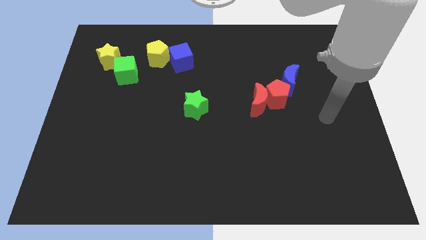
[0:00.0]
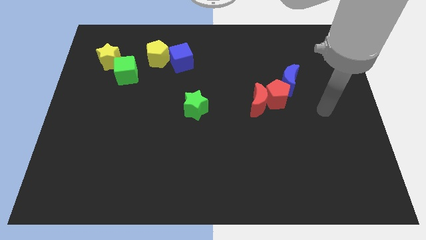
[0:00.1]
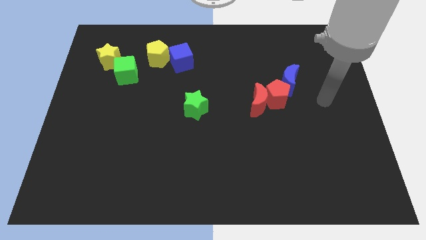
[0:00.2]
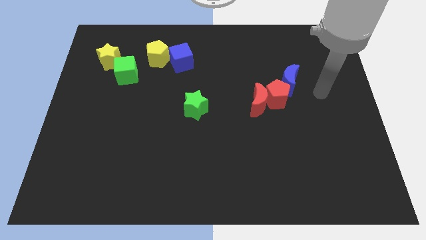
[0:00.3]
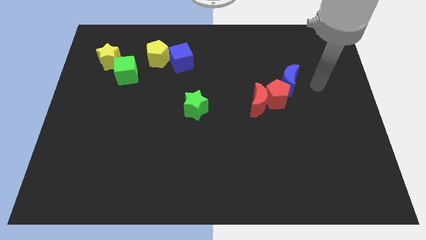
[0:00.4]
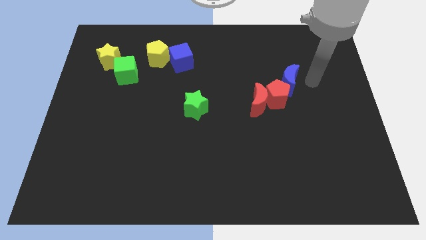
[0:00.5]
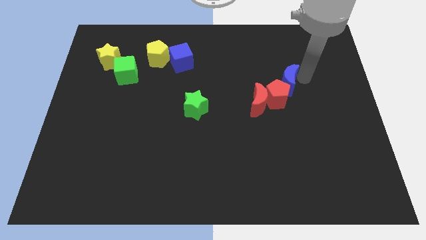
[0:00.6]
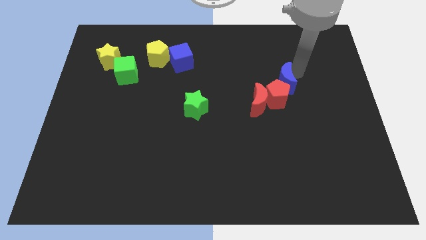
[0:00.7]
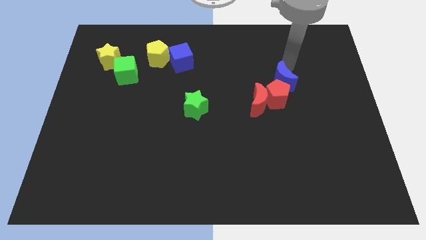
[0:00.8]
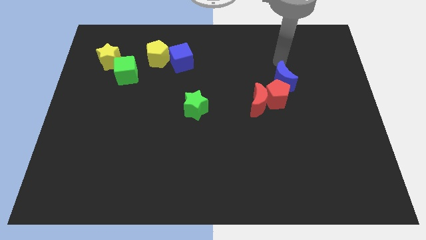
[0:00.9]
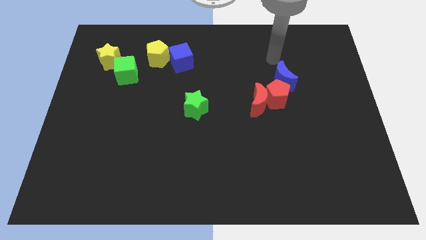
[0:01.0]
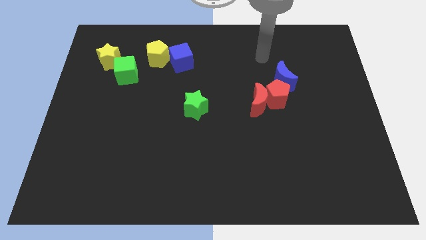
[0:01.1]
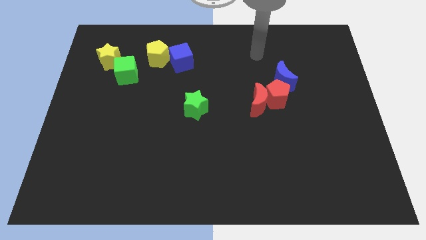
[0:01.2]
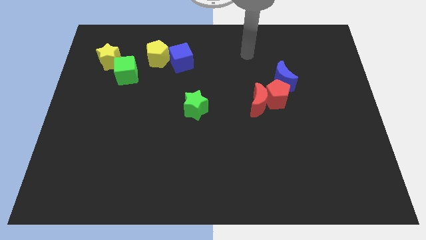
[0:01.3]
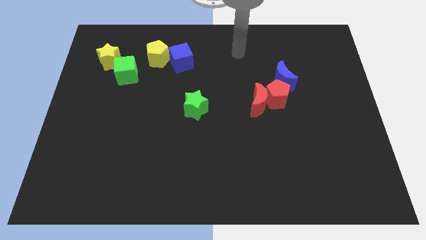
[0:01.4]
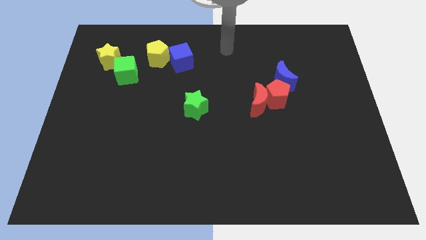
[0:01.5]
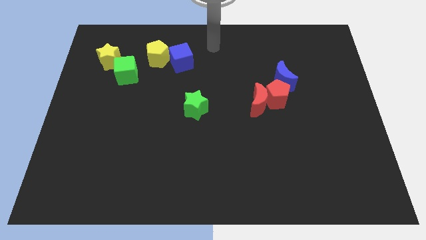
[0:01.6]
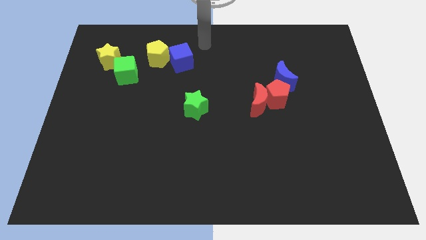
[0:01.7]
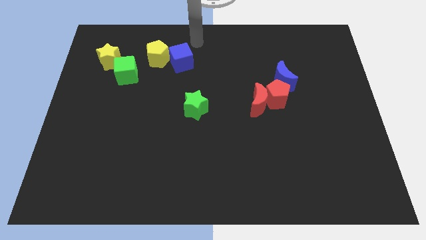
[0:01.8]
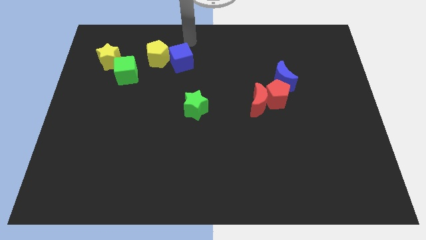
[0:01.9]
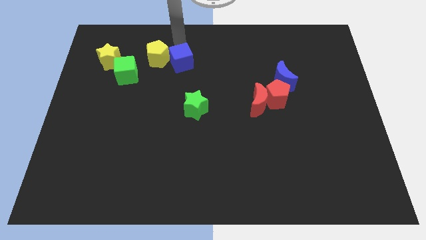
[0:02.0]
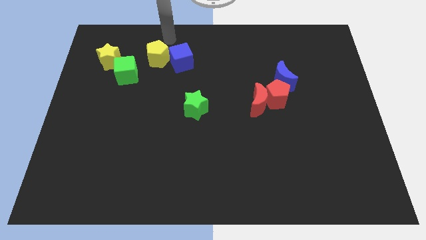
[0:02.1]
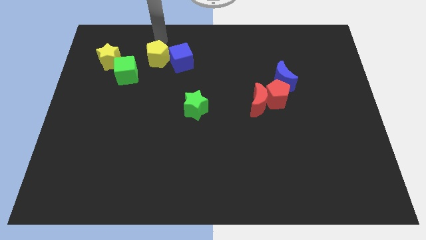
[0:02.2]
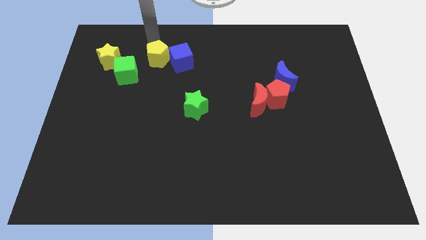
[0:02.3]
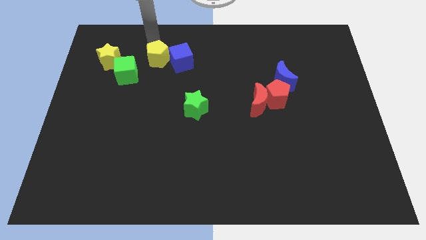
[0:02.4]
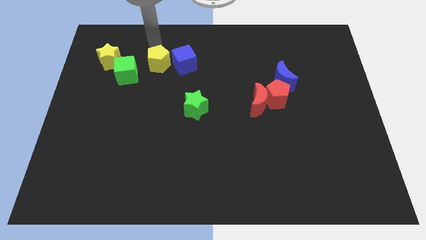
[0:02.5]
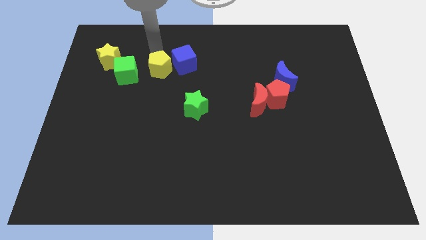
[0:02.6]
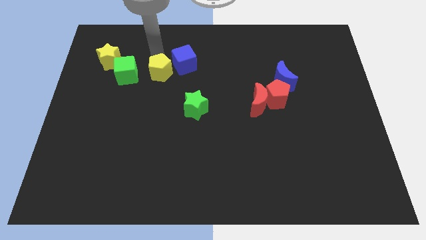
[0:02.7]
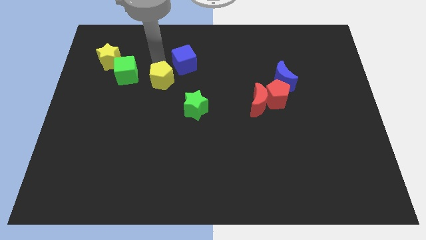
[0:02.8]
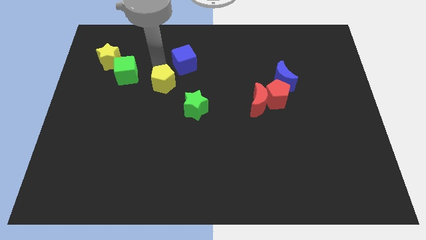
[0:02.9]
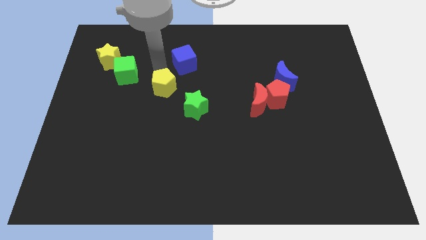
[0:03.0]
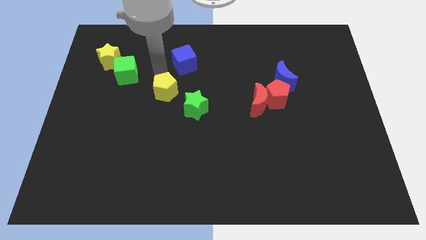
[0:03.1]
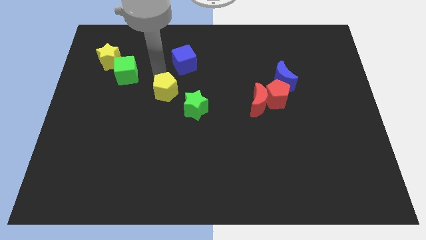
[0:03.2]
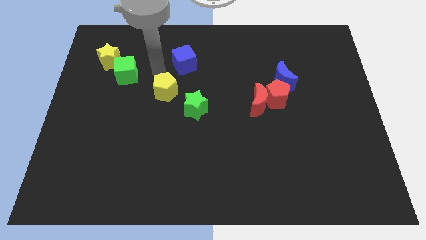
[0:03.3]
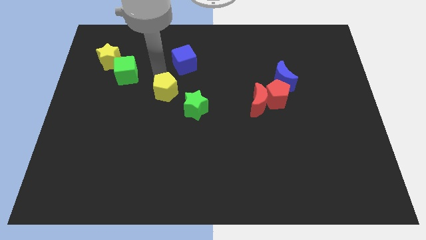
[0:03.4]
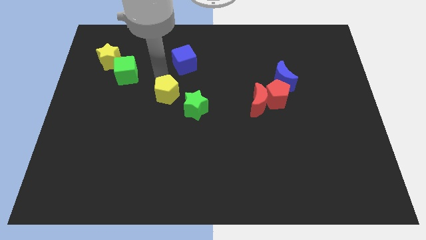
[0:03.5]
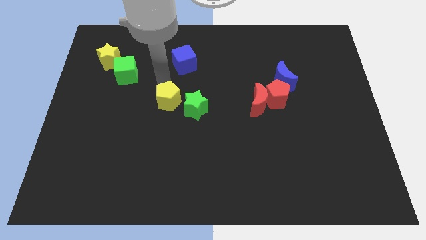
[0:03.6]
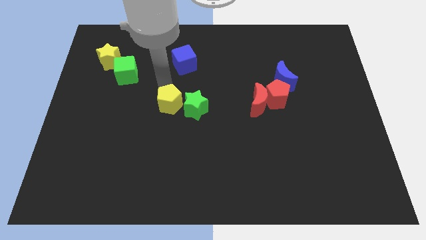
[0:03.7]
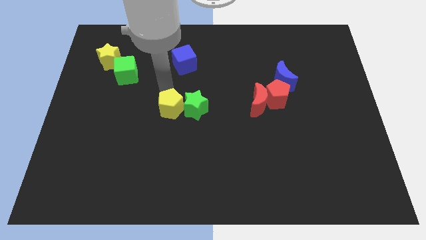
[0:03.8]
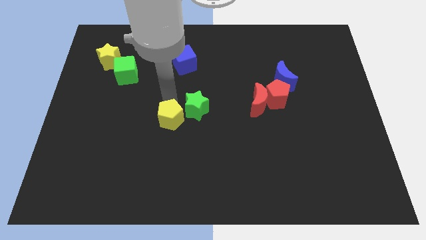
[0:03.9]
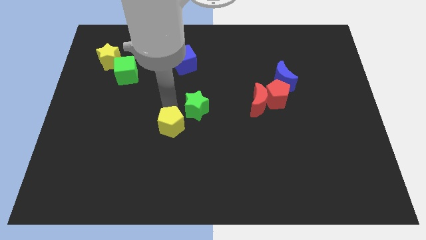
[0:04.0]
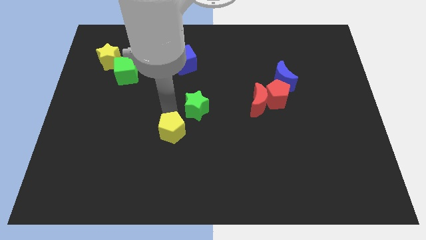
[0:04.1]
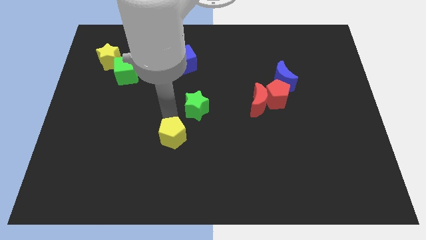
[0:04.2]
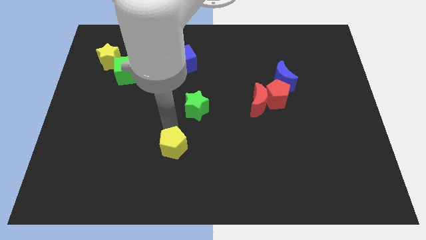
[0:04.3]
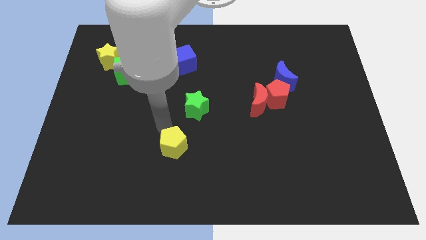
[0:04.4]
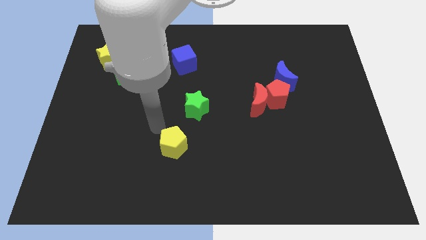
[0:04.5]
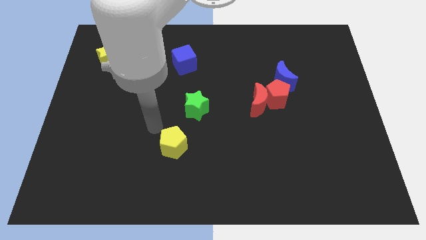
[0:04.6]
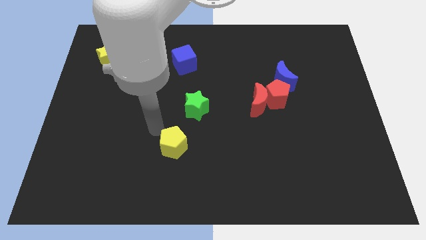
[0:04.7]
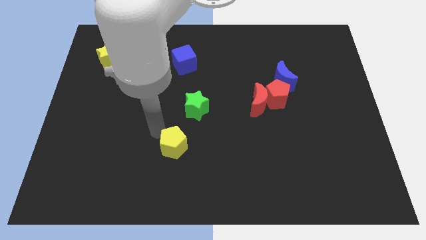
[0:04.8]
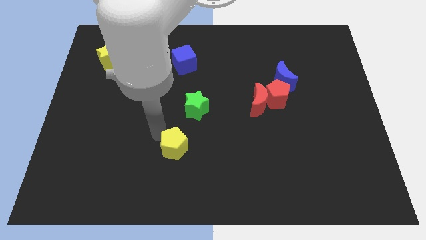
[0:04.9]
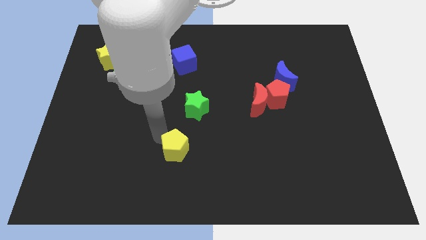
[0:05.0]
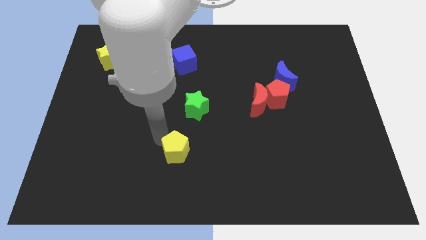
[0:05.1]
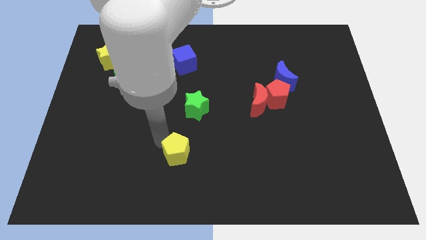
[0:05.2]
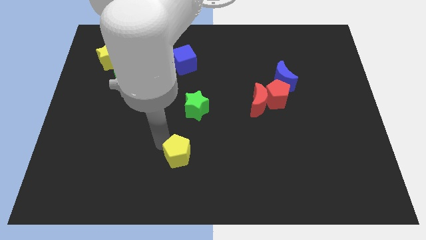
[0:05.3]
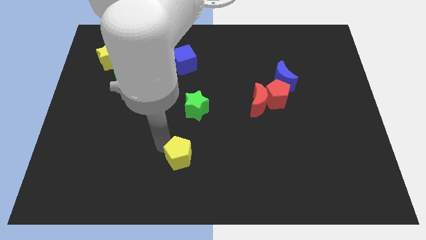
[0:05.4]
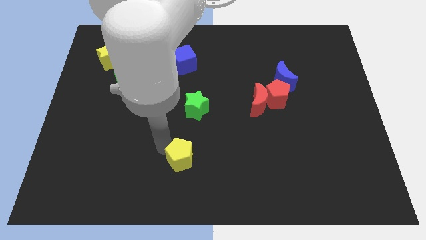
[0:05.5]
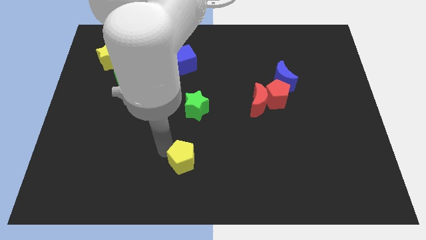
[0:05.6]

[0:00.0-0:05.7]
put the yellow pentagon to the bottom side

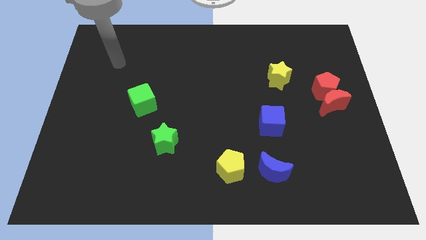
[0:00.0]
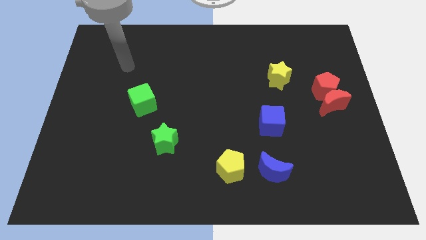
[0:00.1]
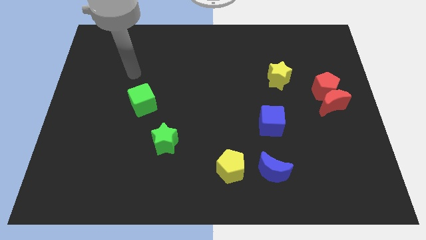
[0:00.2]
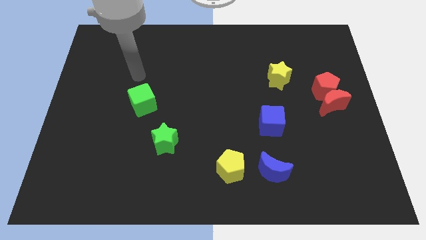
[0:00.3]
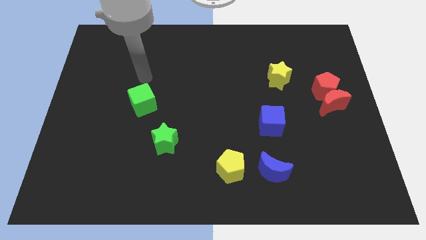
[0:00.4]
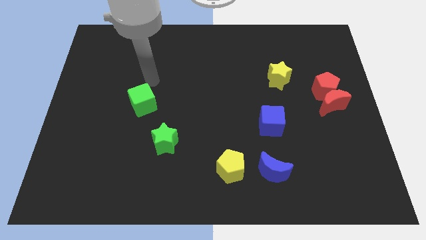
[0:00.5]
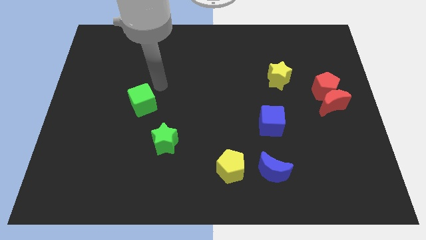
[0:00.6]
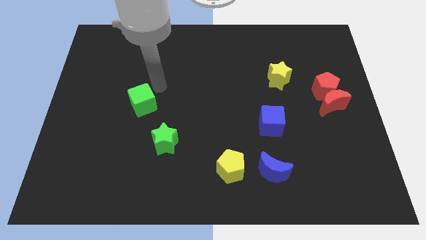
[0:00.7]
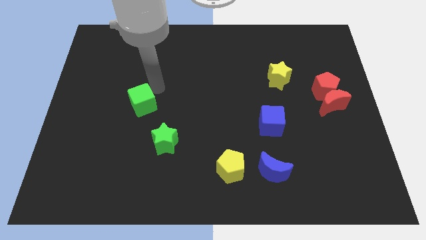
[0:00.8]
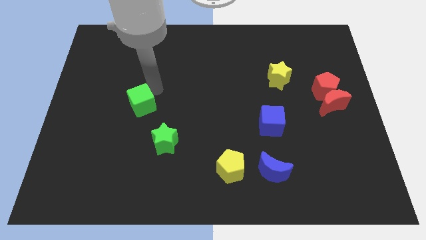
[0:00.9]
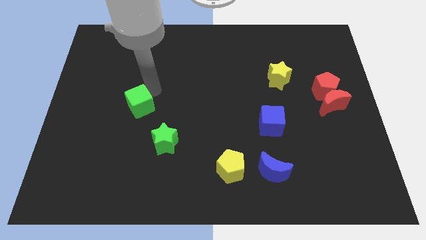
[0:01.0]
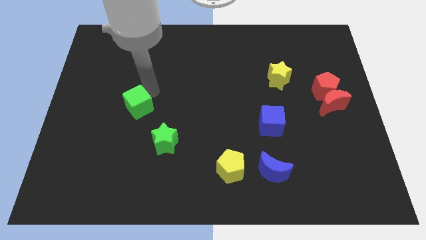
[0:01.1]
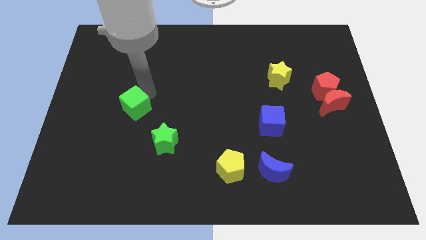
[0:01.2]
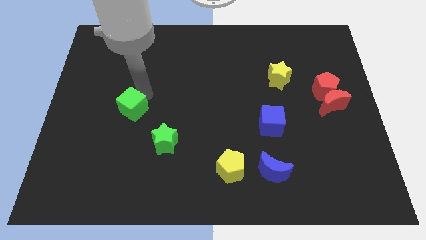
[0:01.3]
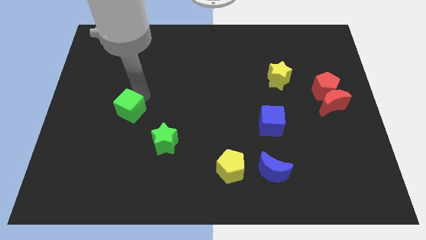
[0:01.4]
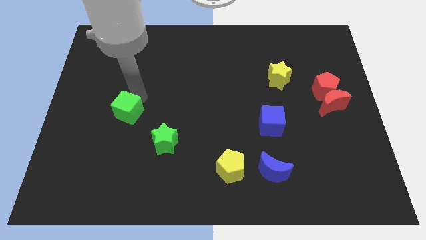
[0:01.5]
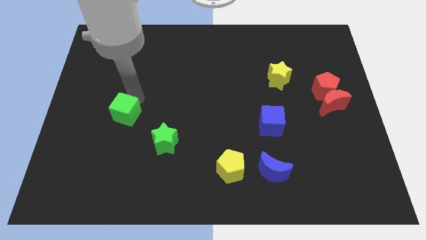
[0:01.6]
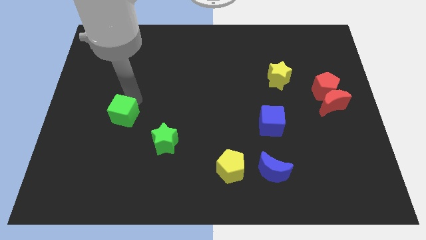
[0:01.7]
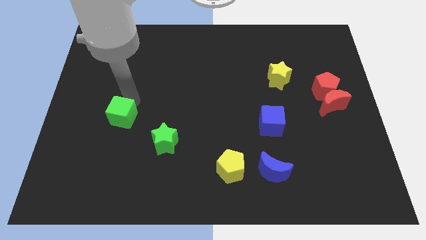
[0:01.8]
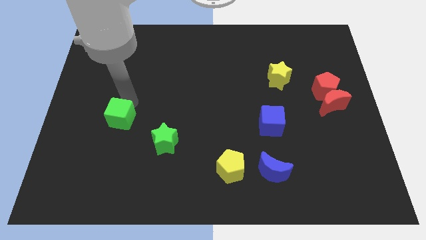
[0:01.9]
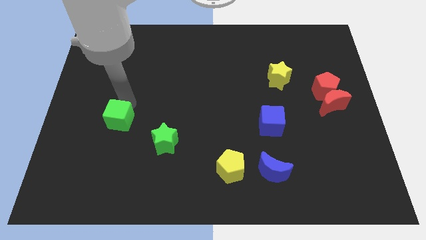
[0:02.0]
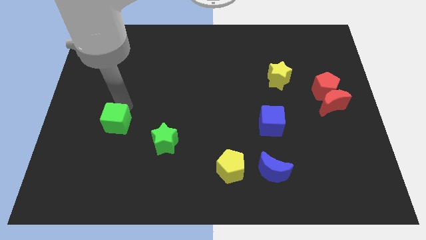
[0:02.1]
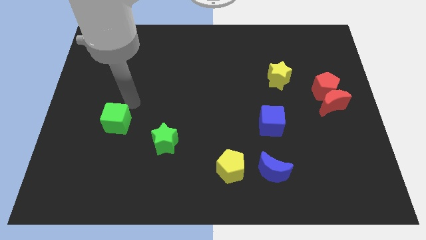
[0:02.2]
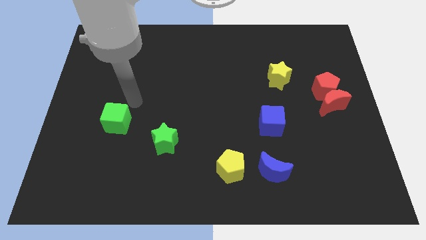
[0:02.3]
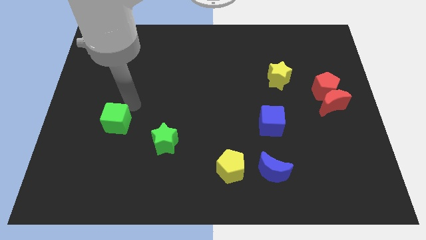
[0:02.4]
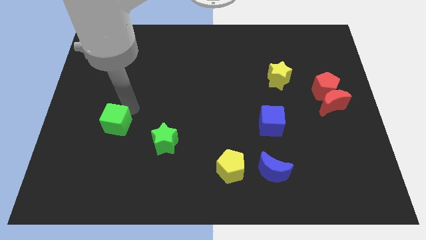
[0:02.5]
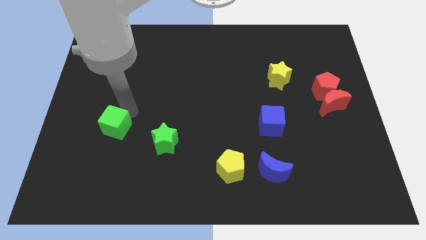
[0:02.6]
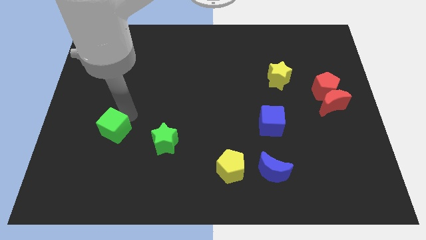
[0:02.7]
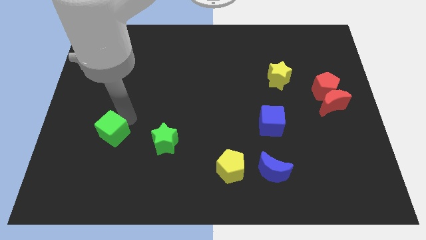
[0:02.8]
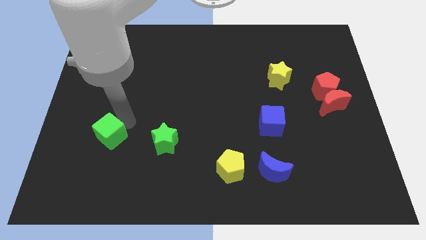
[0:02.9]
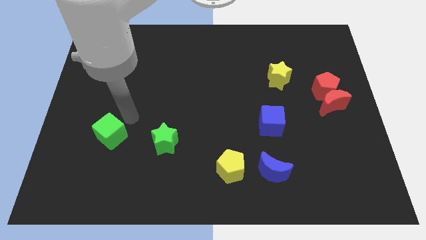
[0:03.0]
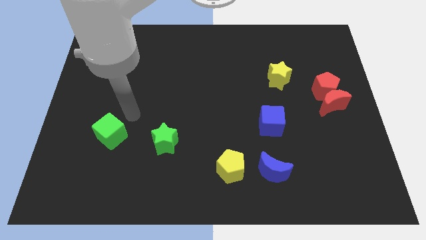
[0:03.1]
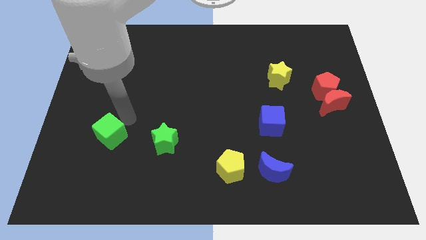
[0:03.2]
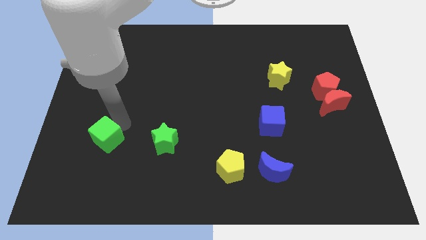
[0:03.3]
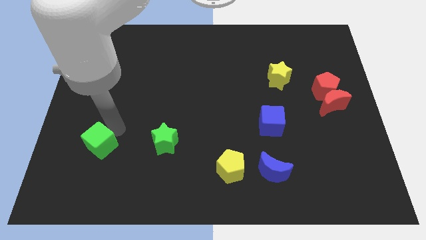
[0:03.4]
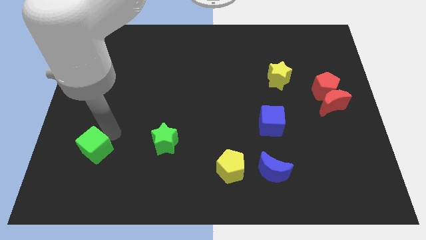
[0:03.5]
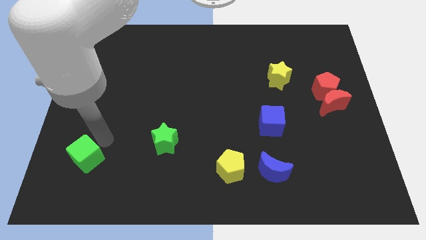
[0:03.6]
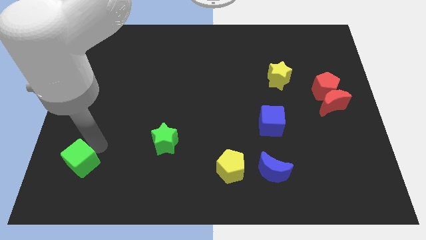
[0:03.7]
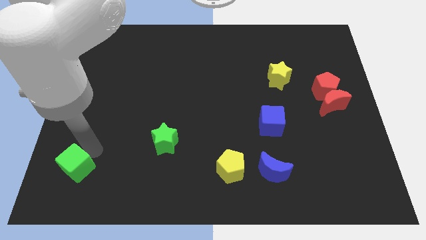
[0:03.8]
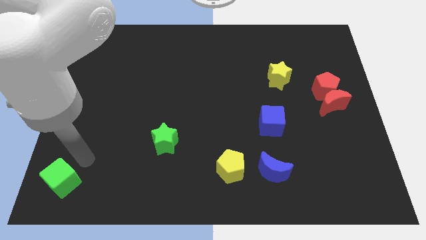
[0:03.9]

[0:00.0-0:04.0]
slide the green cube to the bottom left of the board
